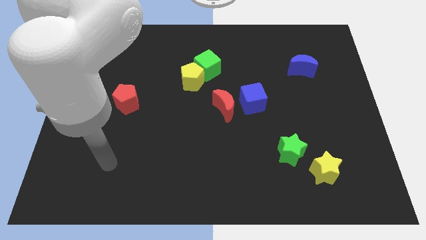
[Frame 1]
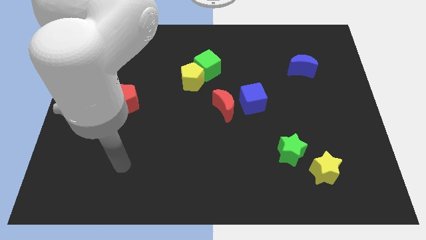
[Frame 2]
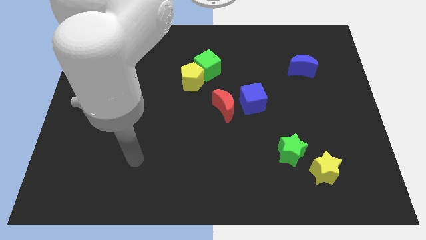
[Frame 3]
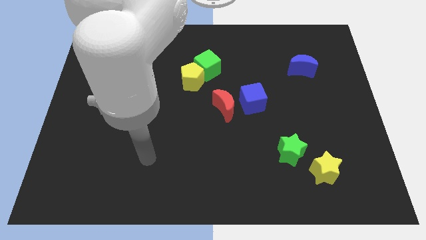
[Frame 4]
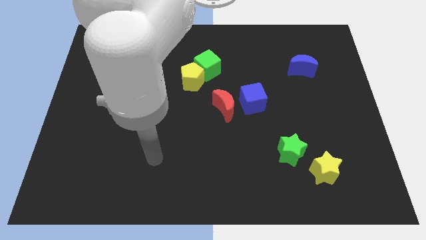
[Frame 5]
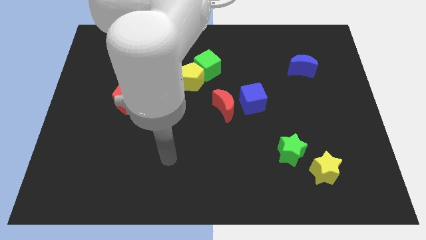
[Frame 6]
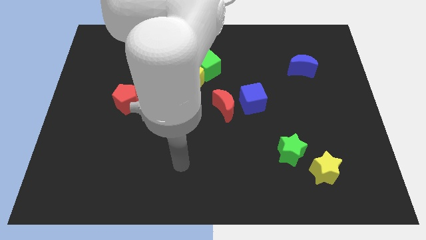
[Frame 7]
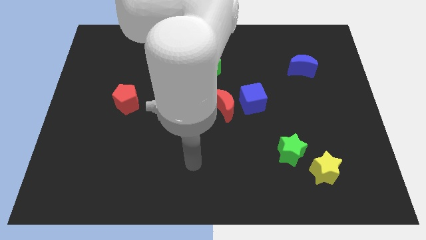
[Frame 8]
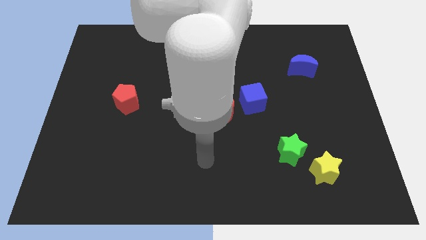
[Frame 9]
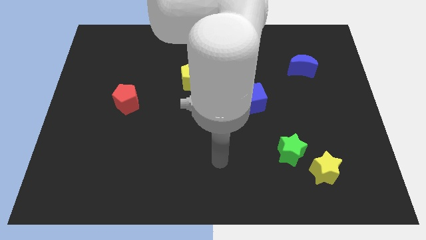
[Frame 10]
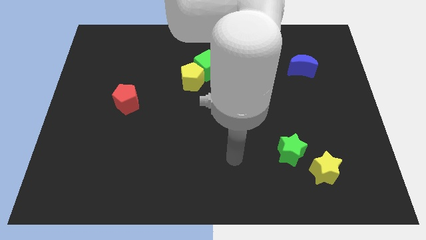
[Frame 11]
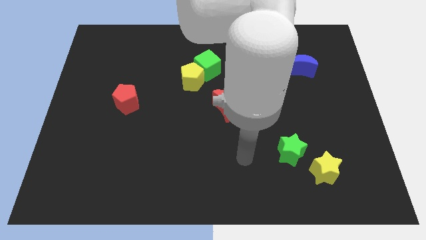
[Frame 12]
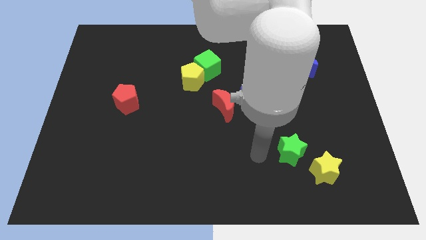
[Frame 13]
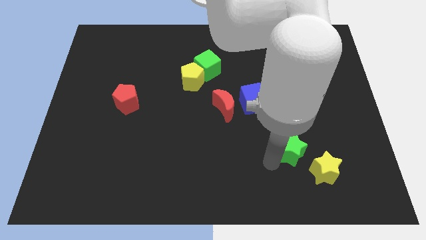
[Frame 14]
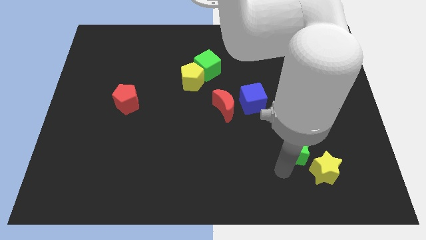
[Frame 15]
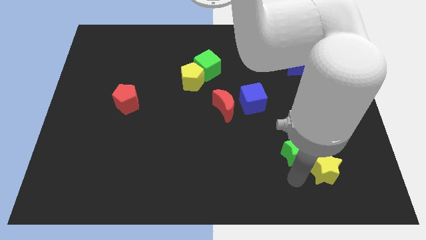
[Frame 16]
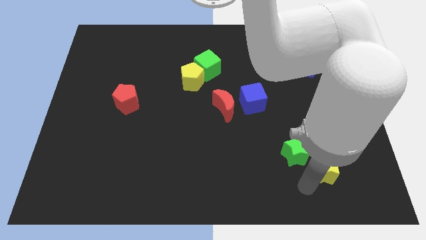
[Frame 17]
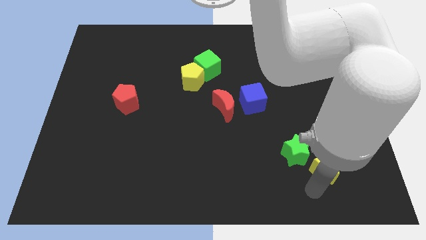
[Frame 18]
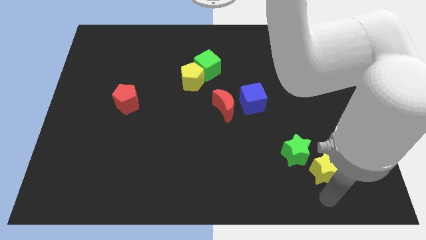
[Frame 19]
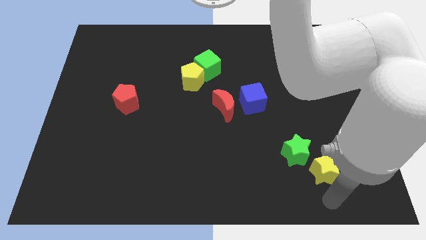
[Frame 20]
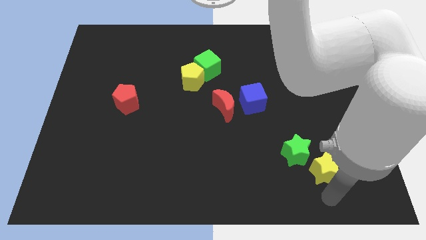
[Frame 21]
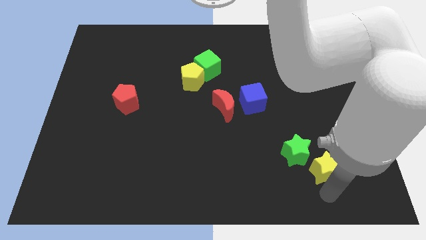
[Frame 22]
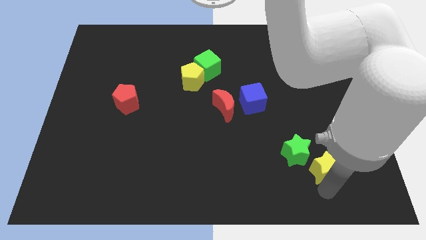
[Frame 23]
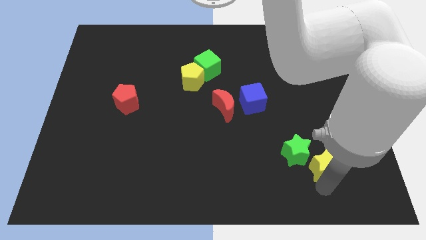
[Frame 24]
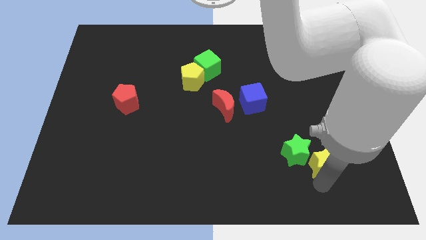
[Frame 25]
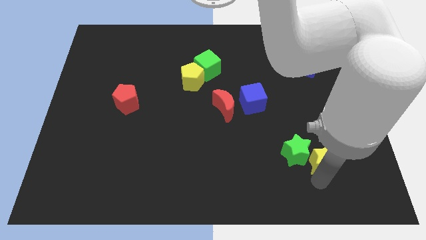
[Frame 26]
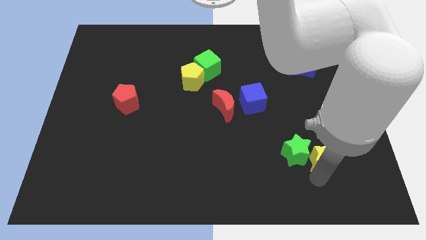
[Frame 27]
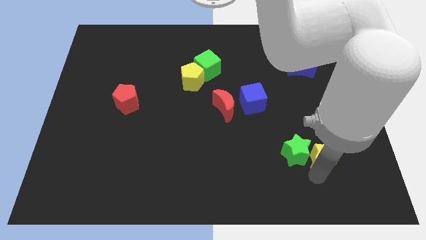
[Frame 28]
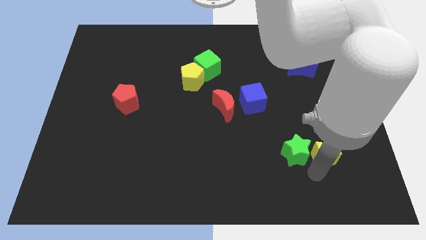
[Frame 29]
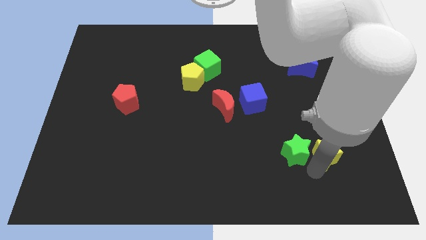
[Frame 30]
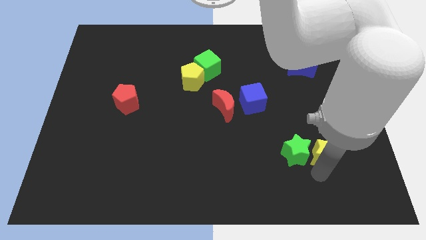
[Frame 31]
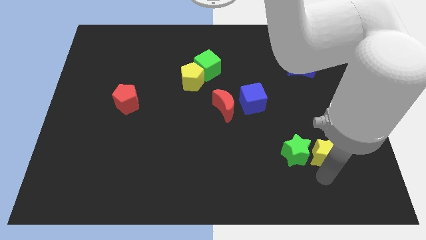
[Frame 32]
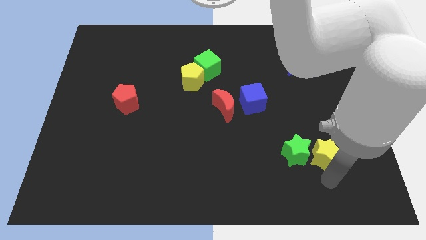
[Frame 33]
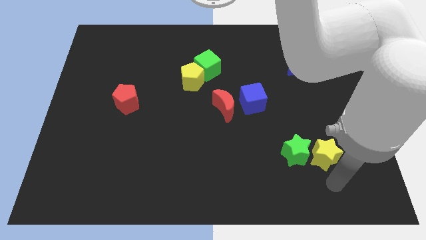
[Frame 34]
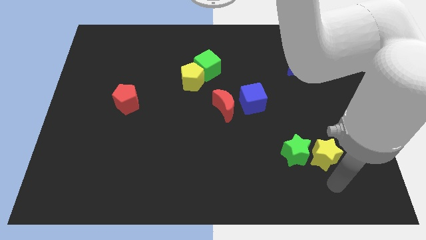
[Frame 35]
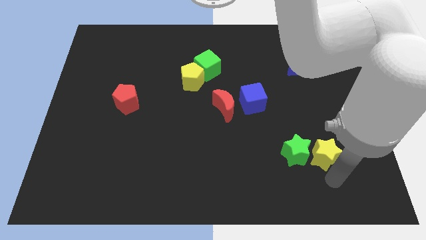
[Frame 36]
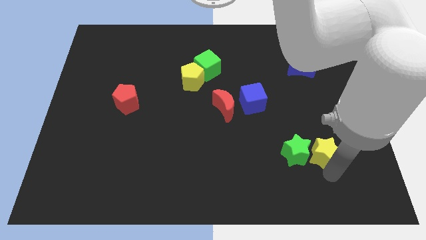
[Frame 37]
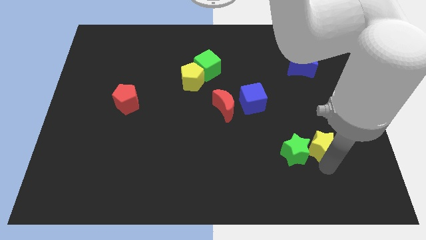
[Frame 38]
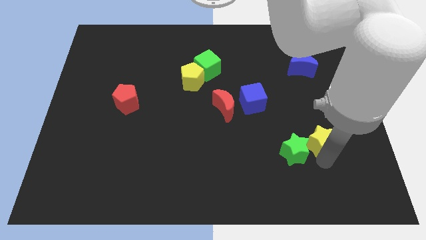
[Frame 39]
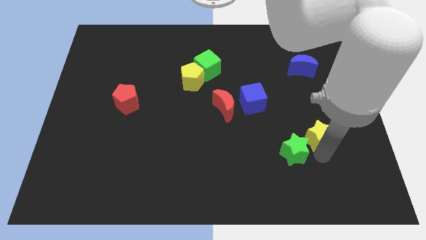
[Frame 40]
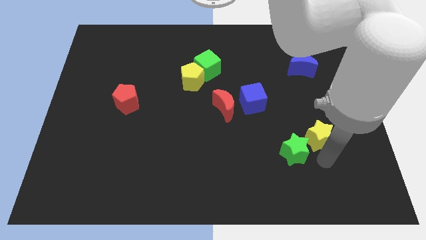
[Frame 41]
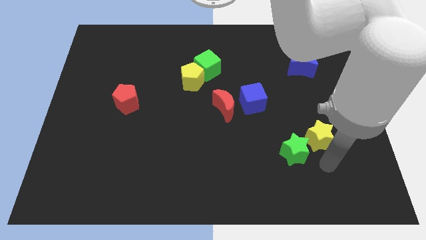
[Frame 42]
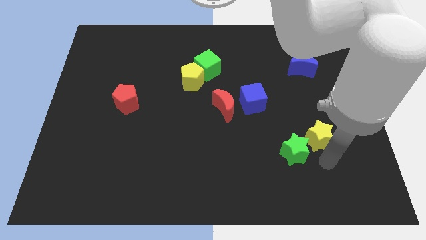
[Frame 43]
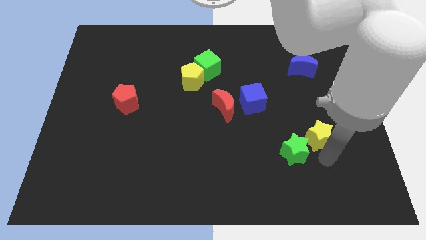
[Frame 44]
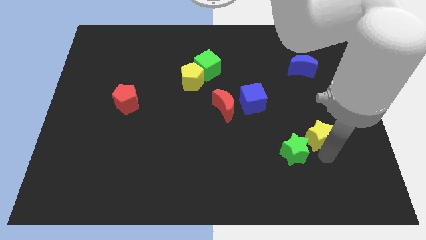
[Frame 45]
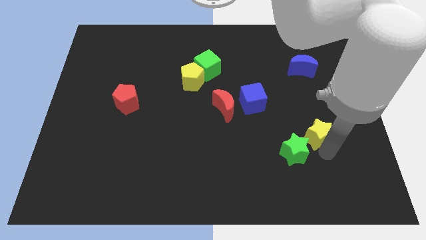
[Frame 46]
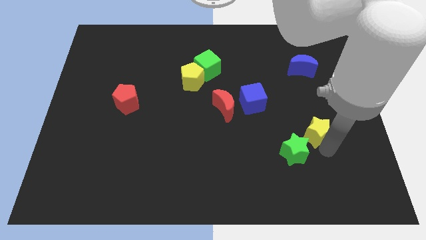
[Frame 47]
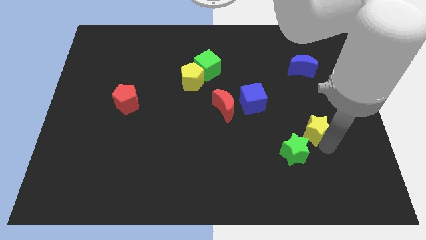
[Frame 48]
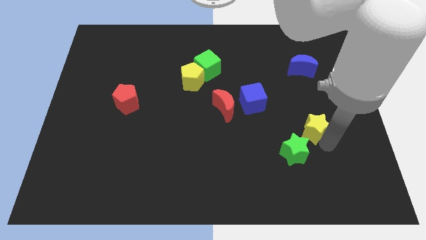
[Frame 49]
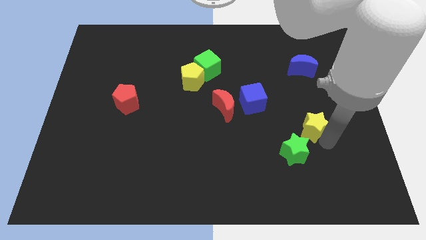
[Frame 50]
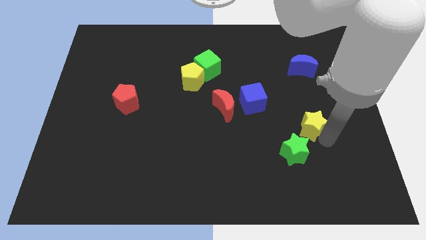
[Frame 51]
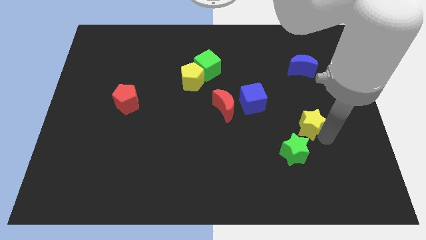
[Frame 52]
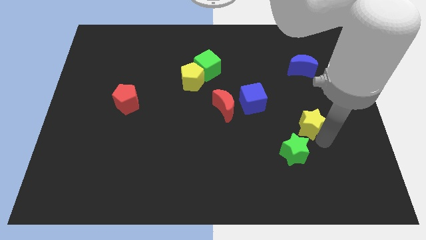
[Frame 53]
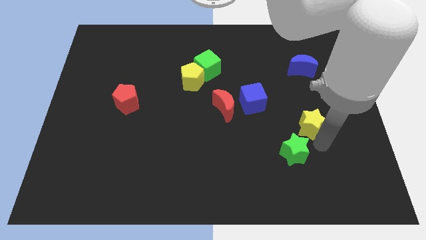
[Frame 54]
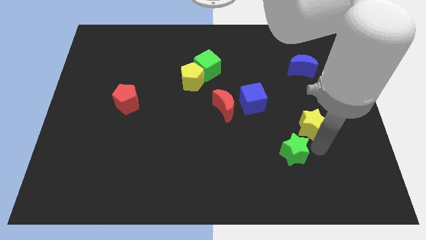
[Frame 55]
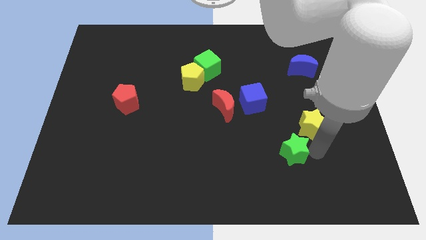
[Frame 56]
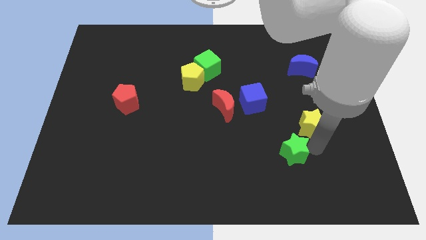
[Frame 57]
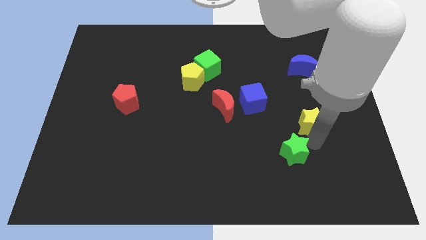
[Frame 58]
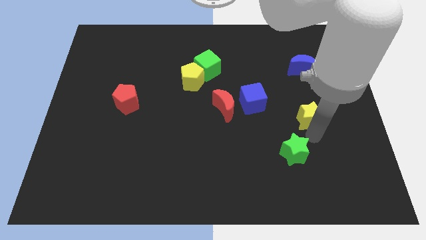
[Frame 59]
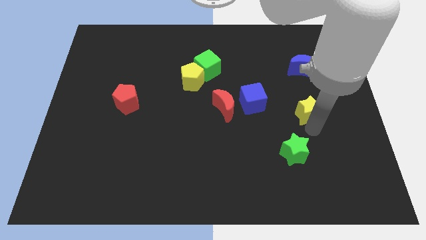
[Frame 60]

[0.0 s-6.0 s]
slide the yellow star to the right side of the blue cube

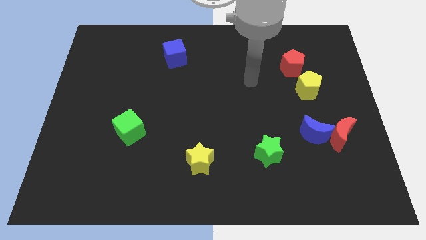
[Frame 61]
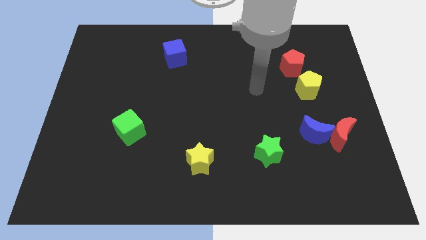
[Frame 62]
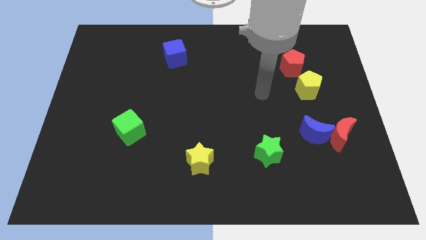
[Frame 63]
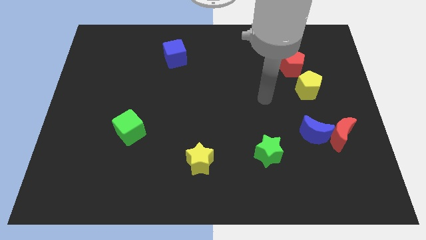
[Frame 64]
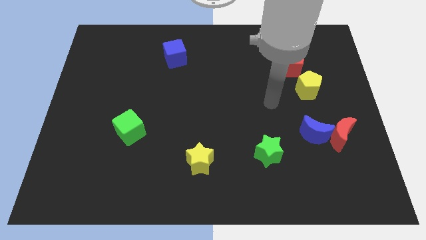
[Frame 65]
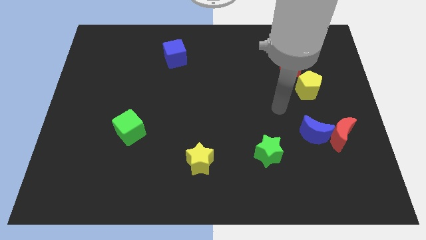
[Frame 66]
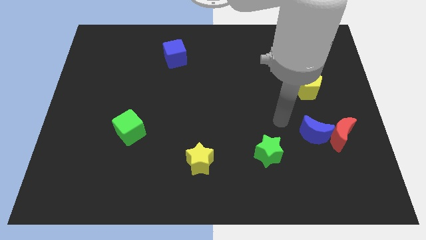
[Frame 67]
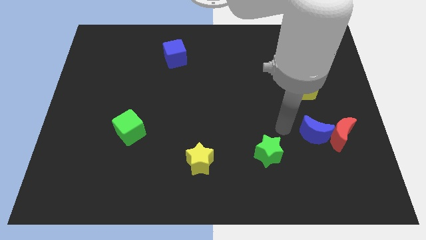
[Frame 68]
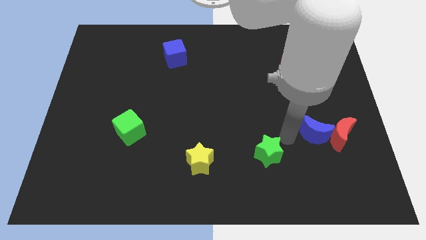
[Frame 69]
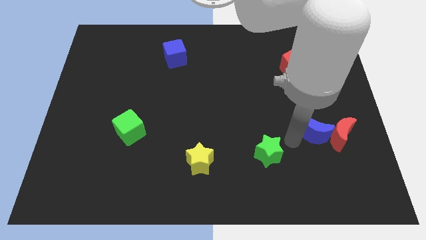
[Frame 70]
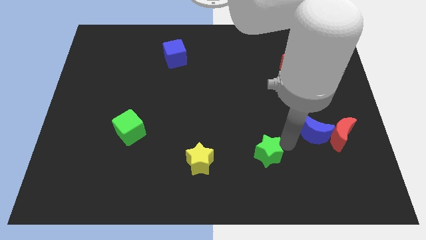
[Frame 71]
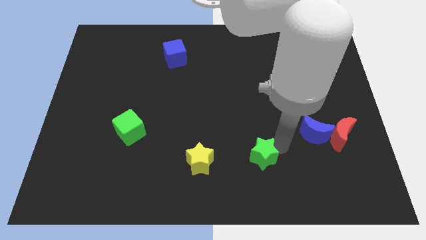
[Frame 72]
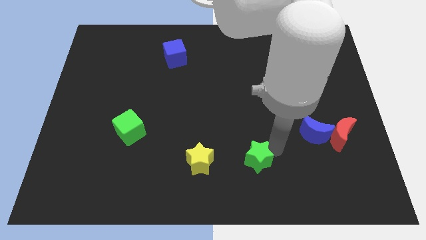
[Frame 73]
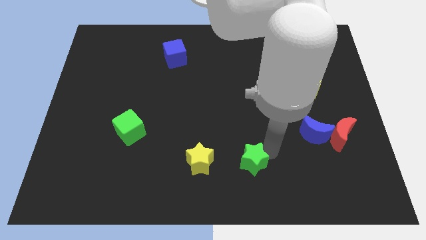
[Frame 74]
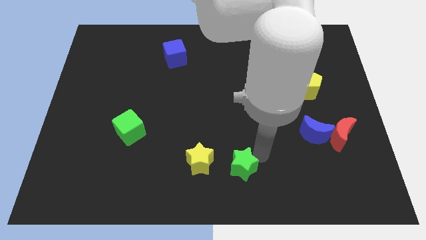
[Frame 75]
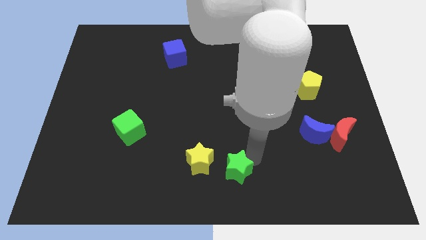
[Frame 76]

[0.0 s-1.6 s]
move the green star to the bottom right of the yellow star
